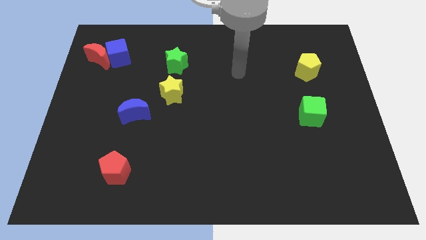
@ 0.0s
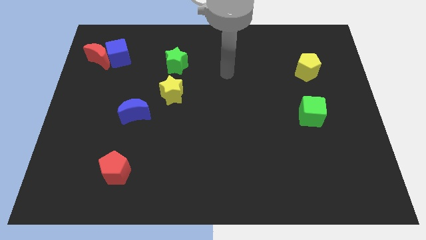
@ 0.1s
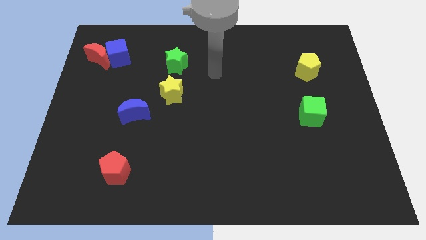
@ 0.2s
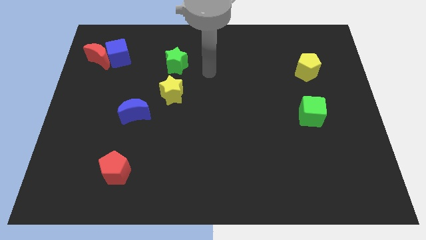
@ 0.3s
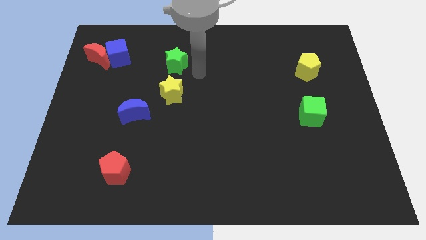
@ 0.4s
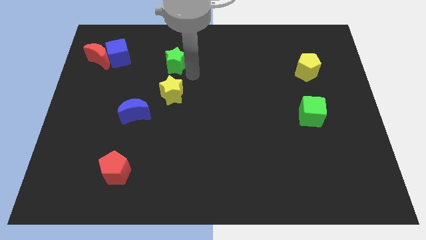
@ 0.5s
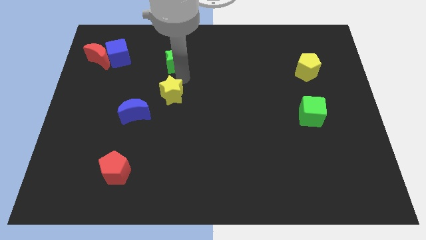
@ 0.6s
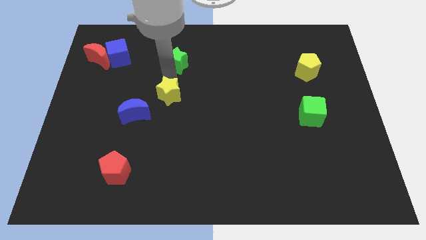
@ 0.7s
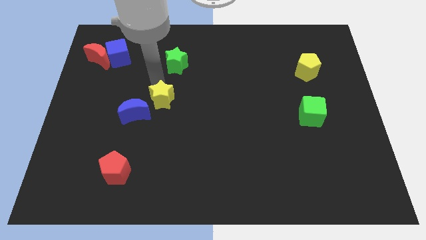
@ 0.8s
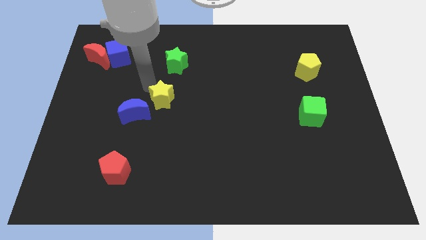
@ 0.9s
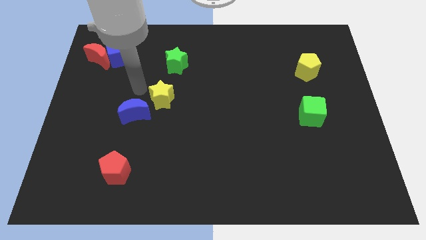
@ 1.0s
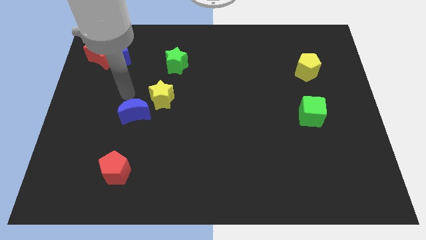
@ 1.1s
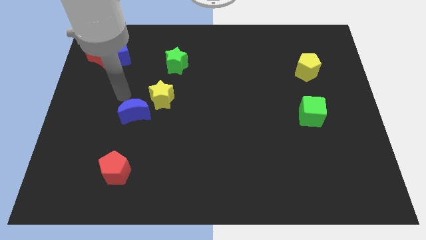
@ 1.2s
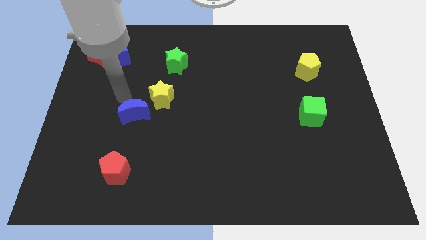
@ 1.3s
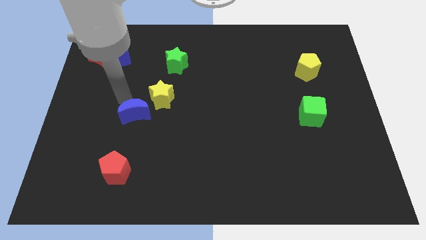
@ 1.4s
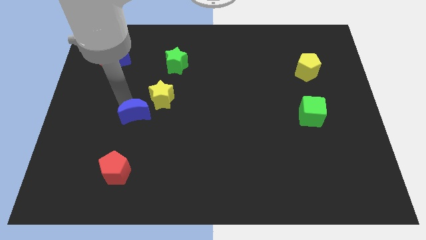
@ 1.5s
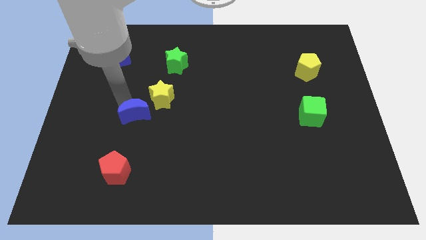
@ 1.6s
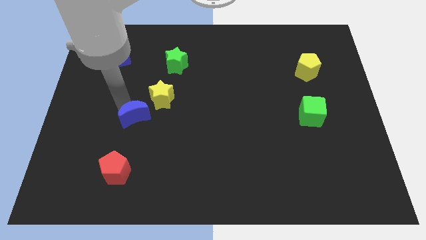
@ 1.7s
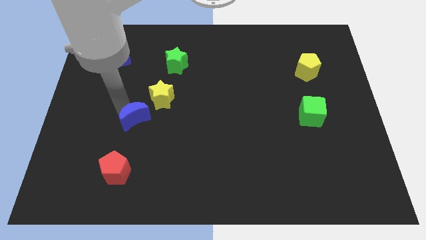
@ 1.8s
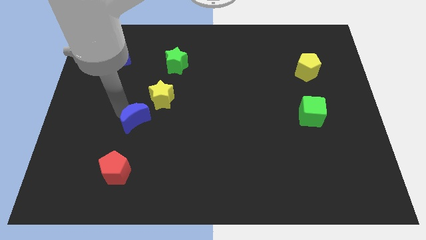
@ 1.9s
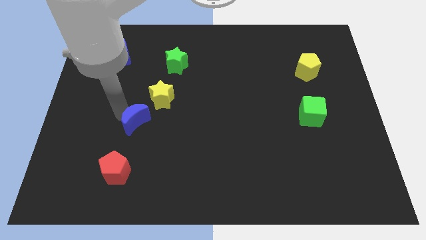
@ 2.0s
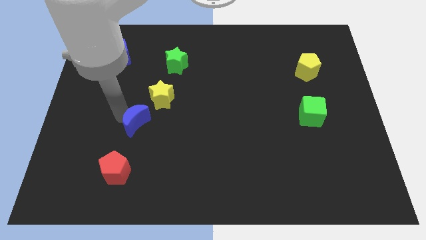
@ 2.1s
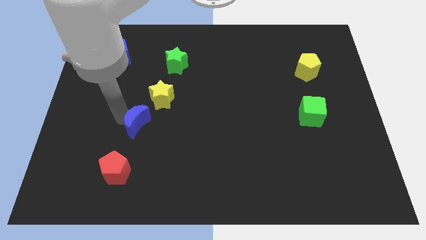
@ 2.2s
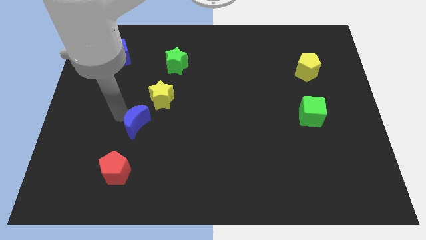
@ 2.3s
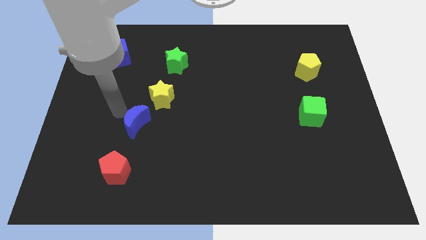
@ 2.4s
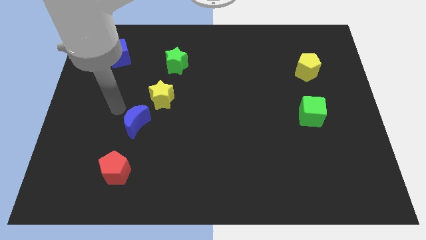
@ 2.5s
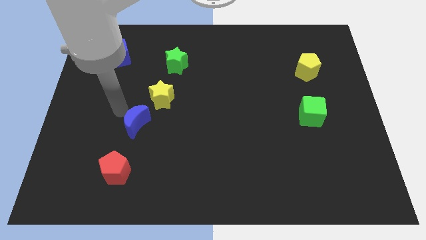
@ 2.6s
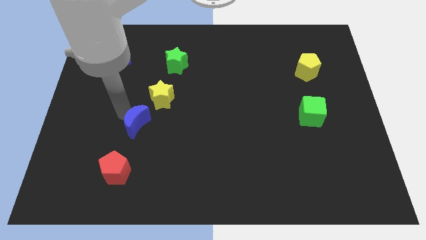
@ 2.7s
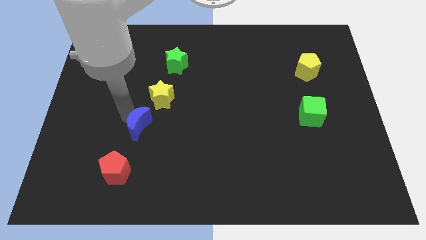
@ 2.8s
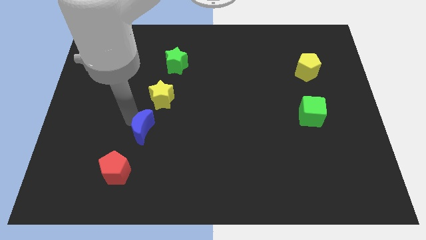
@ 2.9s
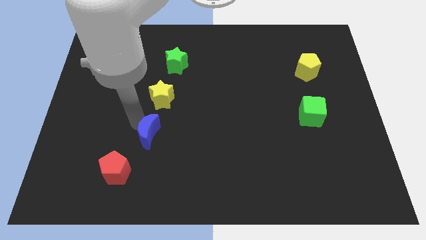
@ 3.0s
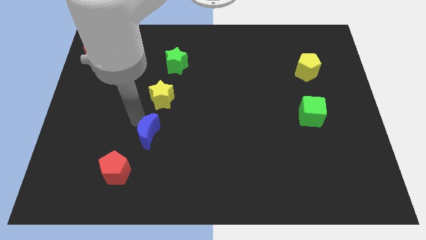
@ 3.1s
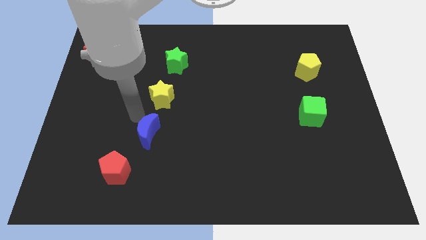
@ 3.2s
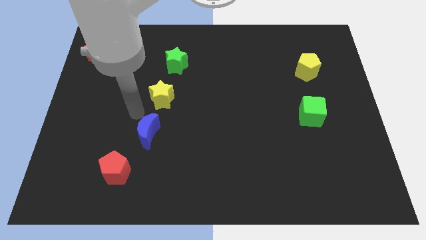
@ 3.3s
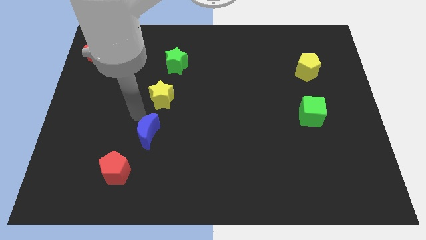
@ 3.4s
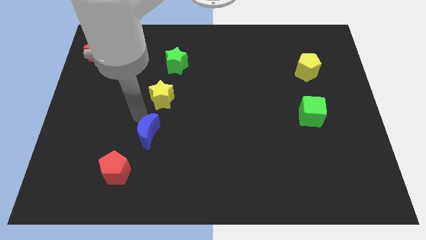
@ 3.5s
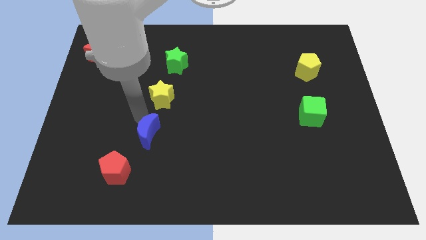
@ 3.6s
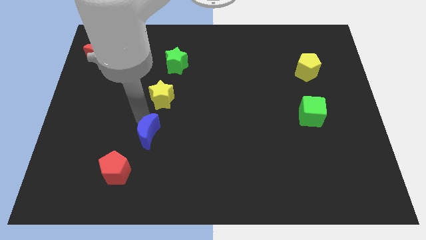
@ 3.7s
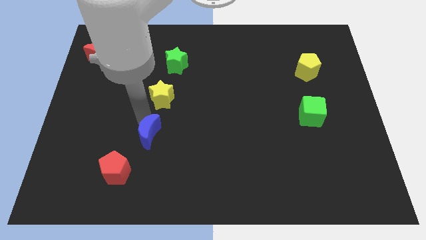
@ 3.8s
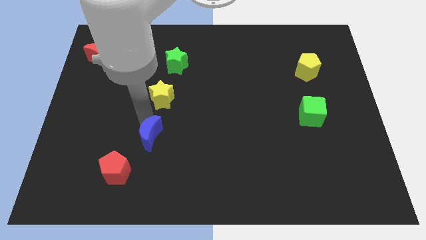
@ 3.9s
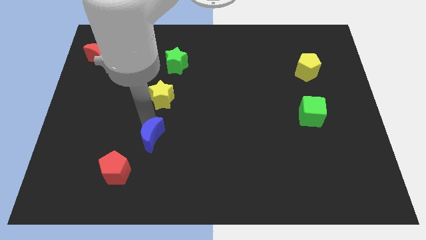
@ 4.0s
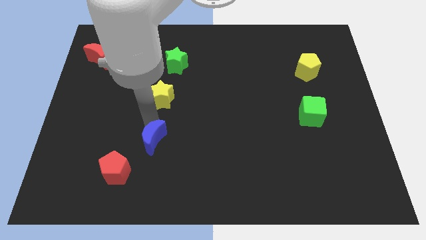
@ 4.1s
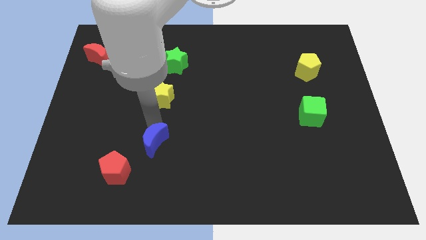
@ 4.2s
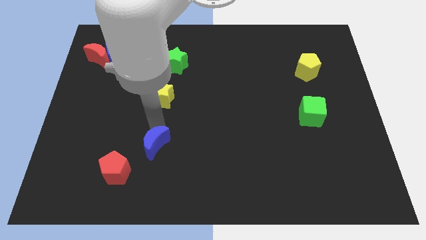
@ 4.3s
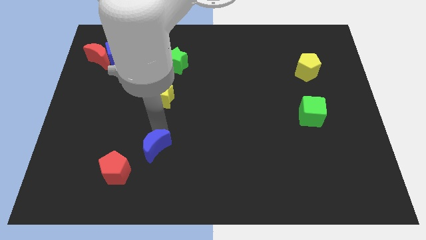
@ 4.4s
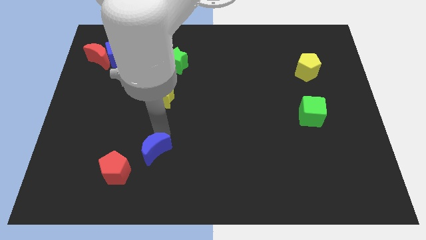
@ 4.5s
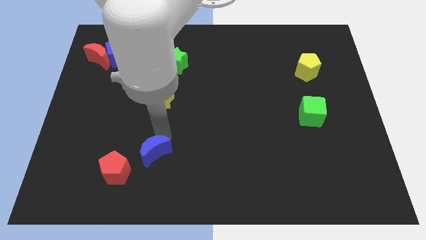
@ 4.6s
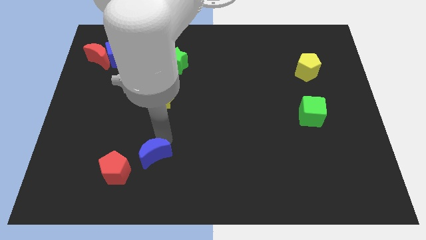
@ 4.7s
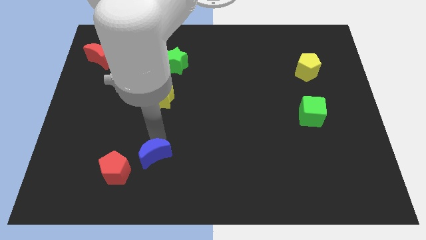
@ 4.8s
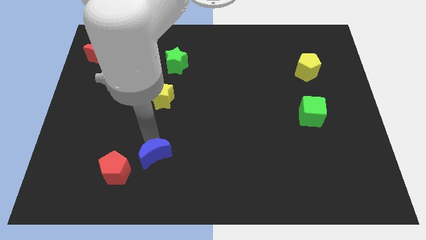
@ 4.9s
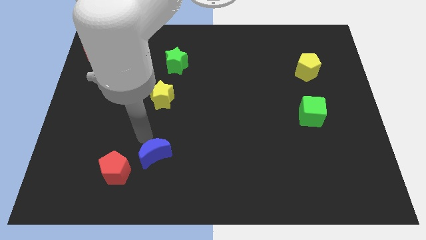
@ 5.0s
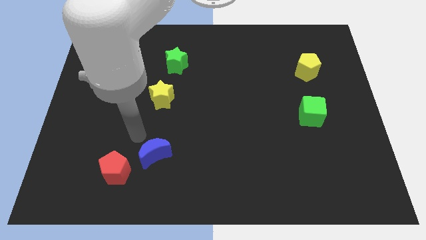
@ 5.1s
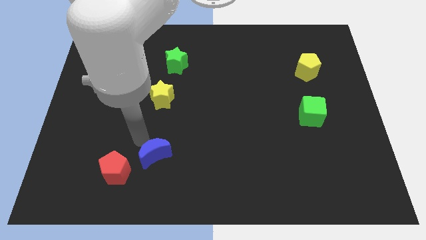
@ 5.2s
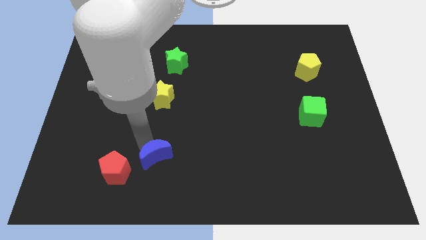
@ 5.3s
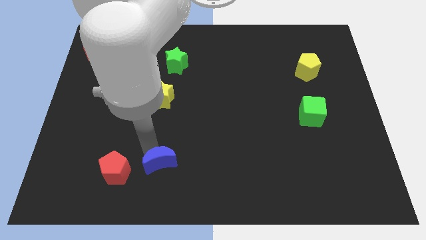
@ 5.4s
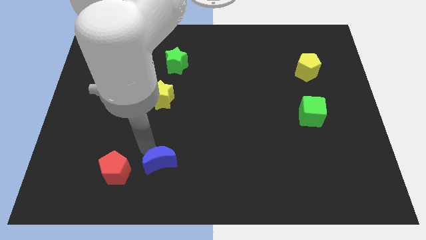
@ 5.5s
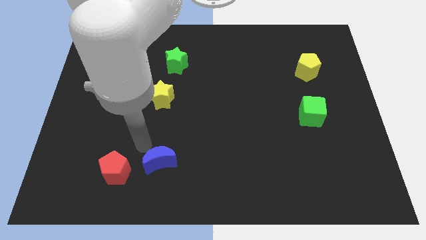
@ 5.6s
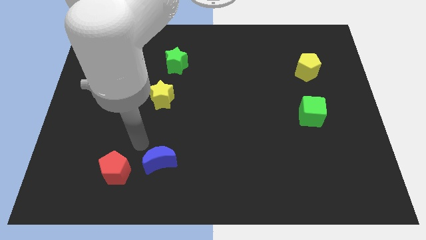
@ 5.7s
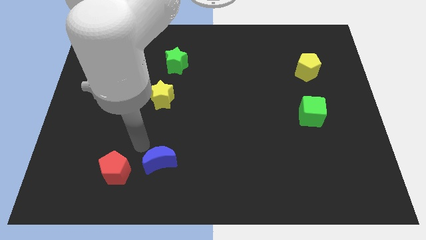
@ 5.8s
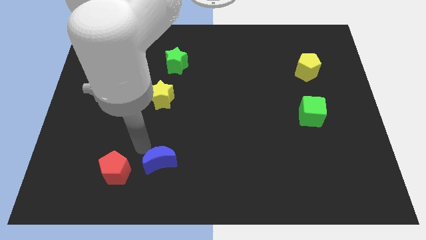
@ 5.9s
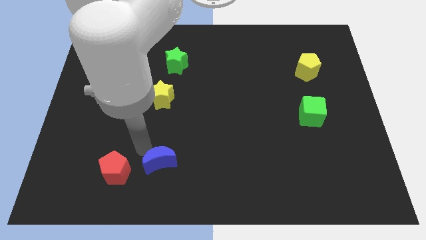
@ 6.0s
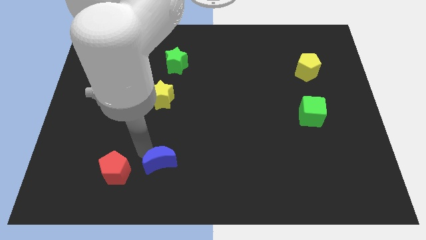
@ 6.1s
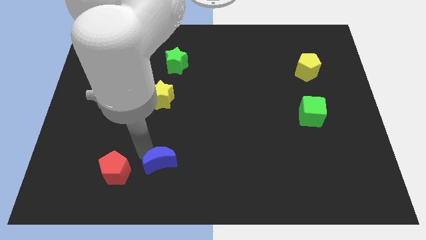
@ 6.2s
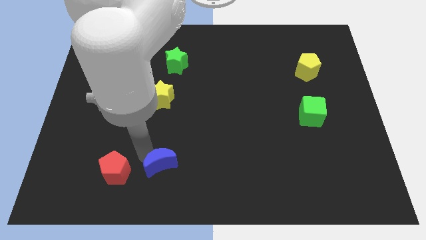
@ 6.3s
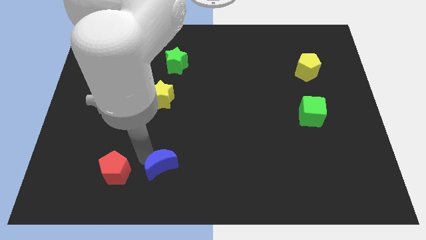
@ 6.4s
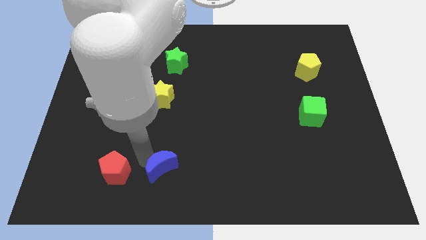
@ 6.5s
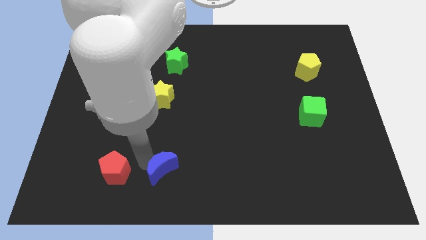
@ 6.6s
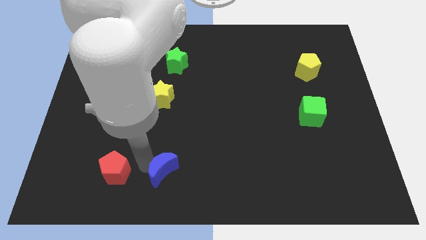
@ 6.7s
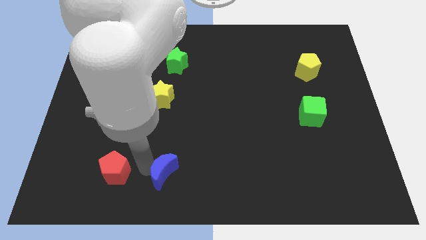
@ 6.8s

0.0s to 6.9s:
push the blue moon to the bottom side

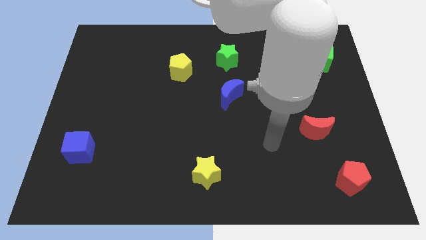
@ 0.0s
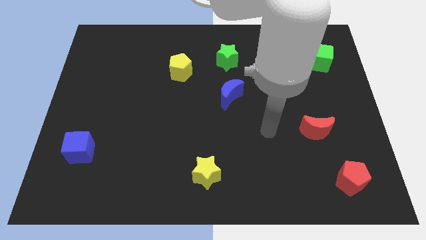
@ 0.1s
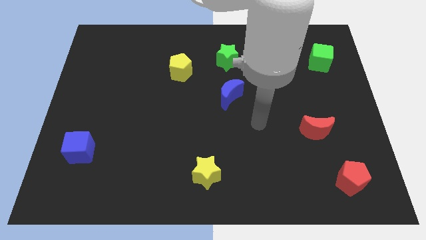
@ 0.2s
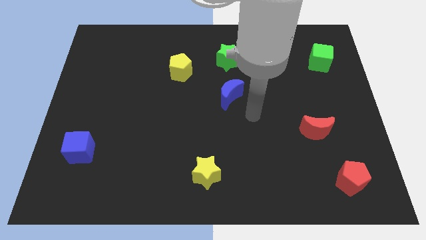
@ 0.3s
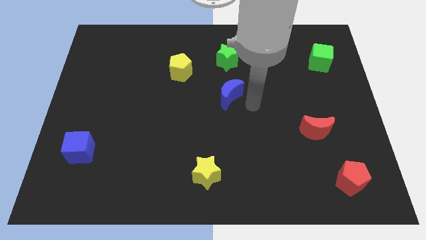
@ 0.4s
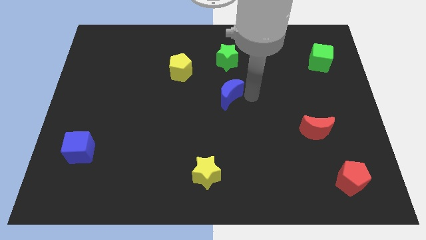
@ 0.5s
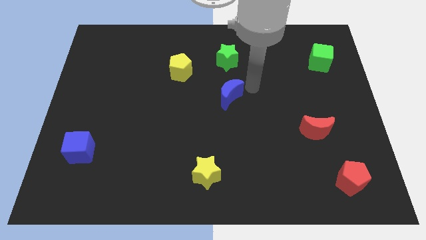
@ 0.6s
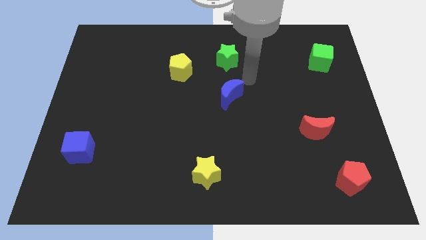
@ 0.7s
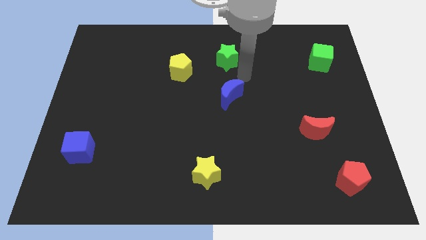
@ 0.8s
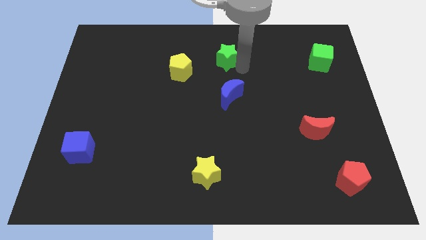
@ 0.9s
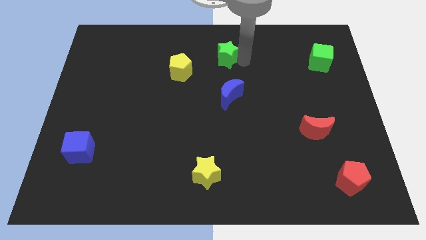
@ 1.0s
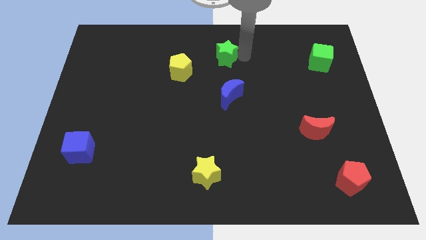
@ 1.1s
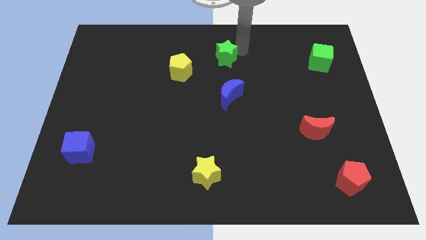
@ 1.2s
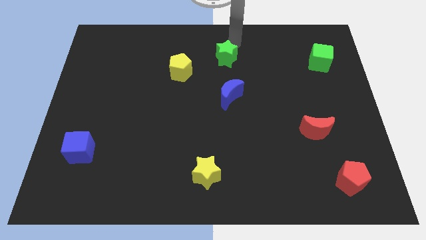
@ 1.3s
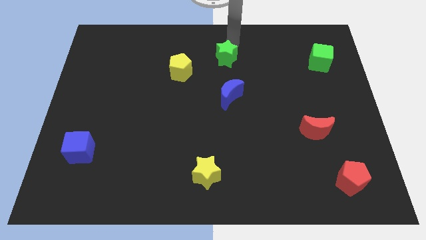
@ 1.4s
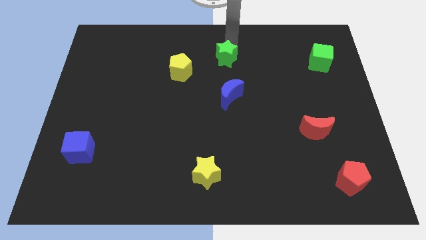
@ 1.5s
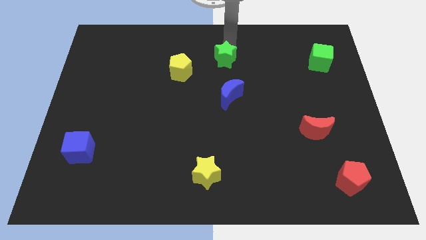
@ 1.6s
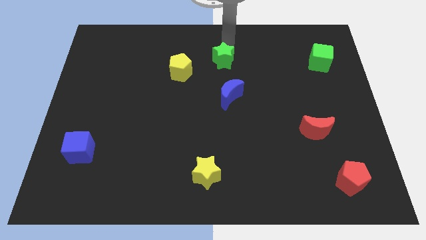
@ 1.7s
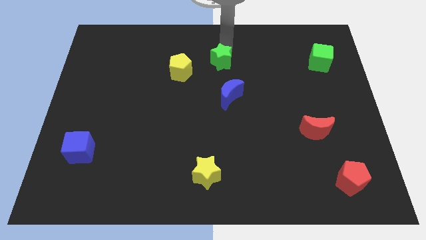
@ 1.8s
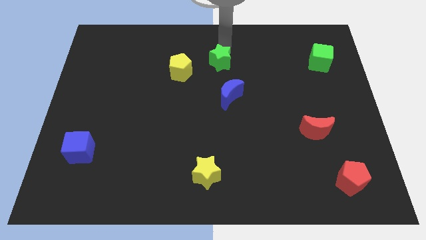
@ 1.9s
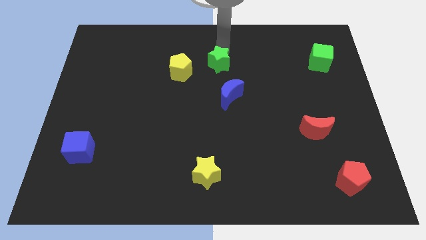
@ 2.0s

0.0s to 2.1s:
slide the green star to the middle of the board
